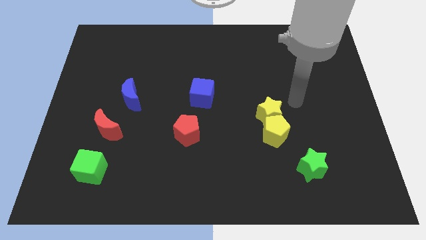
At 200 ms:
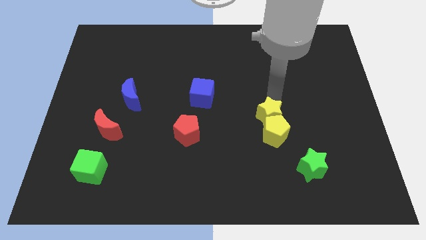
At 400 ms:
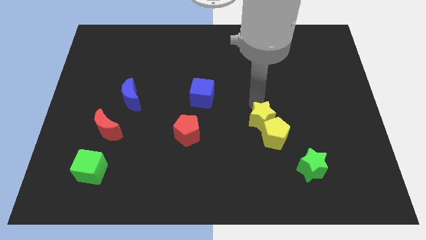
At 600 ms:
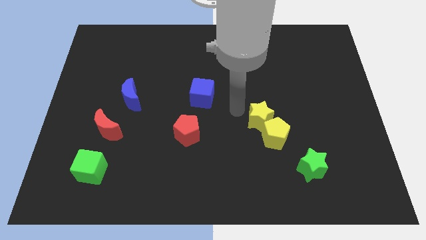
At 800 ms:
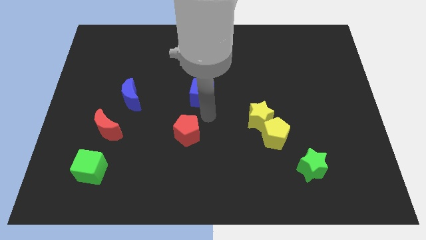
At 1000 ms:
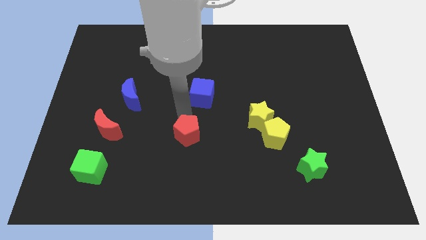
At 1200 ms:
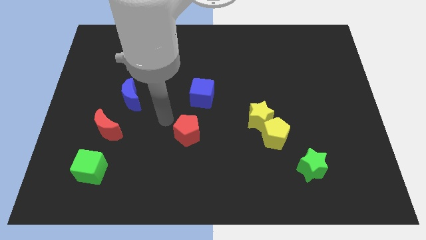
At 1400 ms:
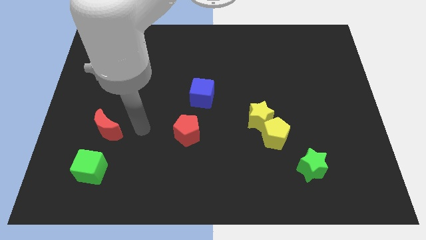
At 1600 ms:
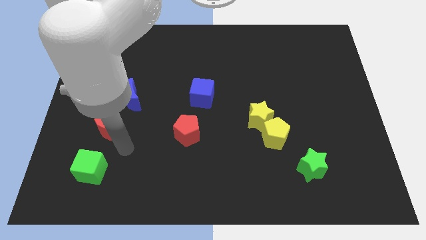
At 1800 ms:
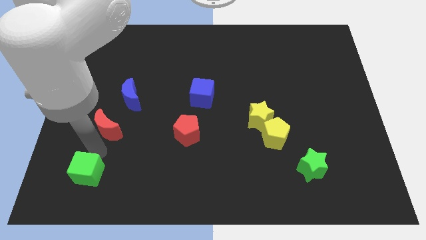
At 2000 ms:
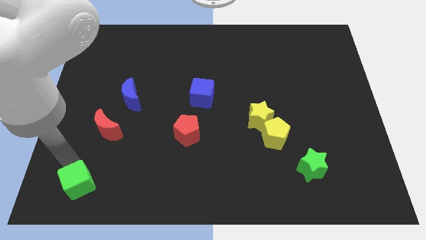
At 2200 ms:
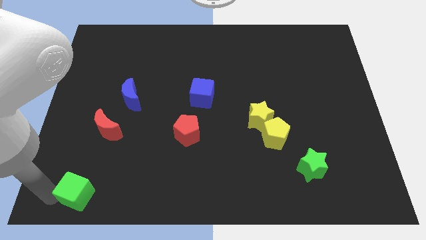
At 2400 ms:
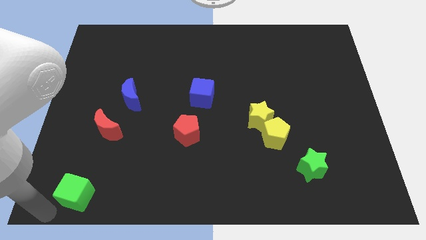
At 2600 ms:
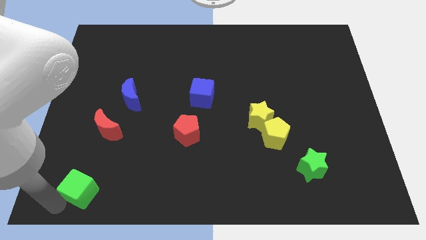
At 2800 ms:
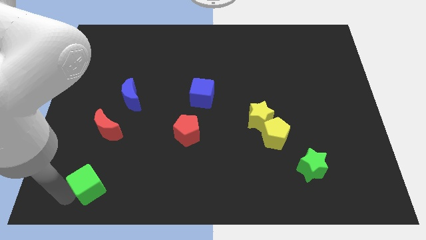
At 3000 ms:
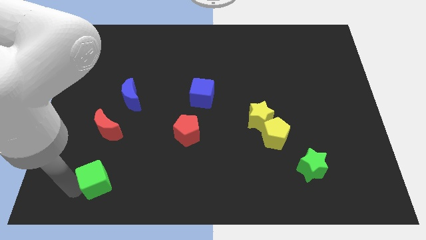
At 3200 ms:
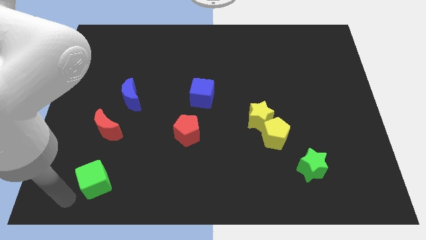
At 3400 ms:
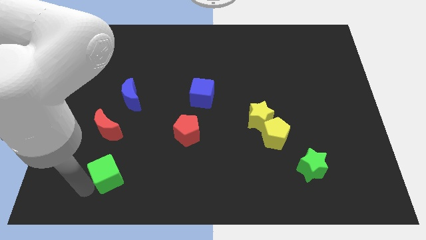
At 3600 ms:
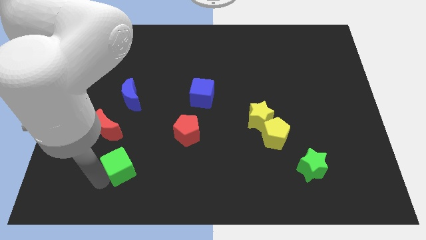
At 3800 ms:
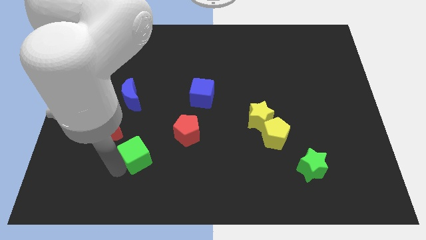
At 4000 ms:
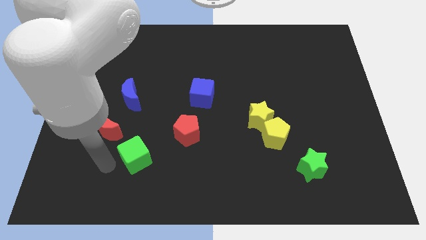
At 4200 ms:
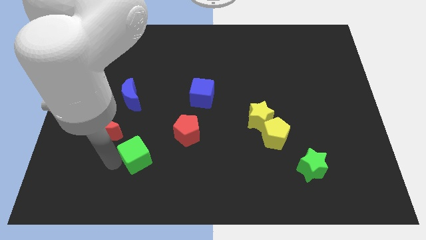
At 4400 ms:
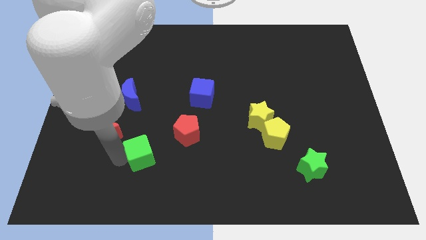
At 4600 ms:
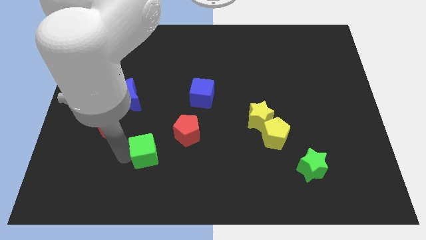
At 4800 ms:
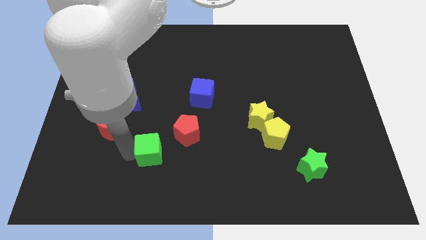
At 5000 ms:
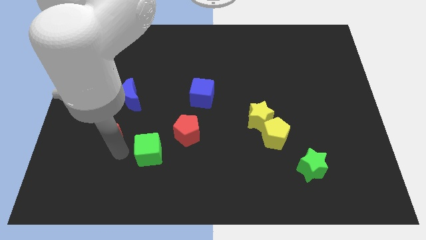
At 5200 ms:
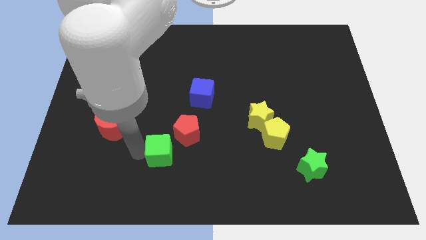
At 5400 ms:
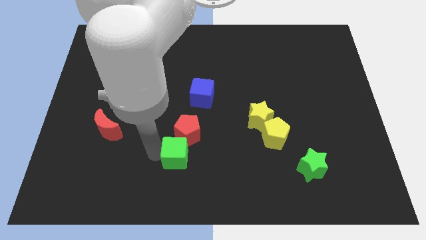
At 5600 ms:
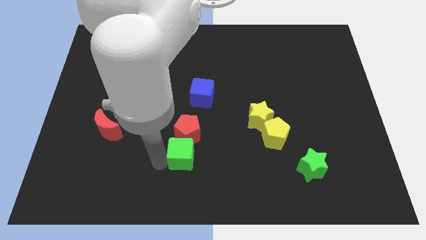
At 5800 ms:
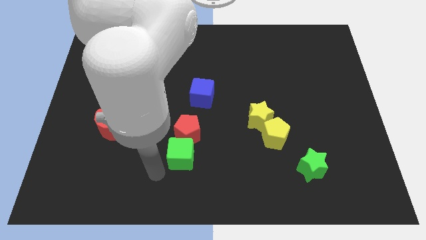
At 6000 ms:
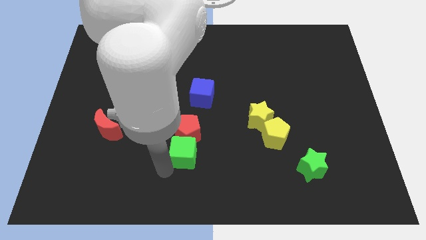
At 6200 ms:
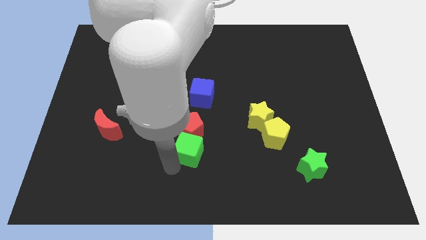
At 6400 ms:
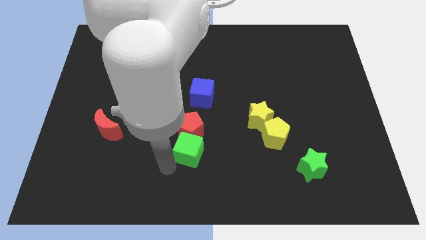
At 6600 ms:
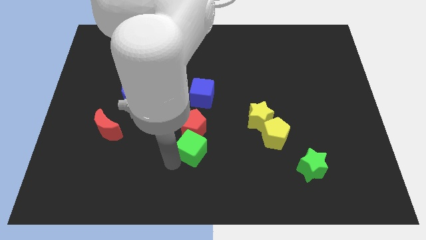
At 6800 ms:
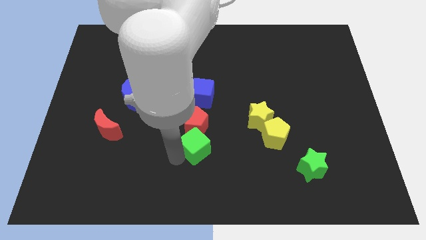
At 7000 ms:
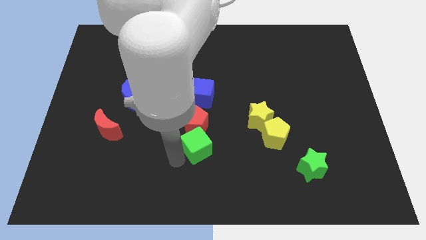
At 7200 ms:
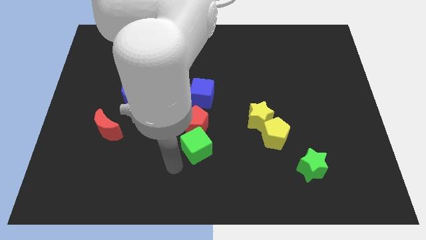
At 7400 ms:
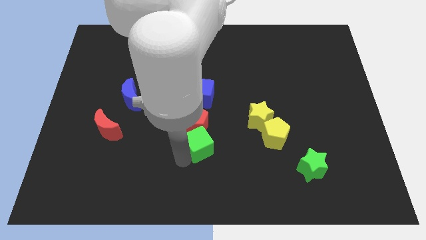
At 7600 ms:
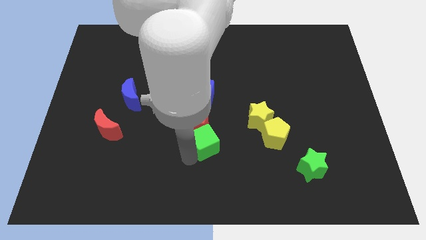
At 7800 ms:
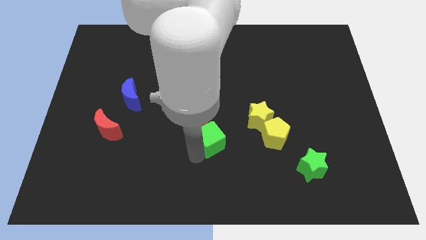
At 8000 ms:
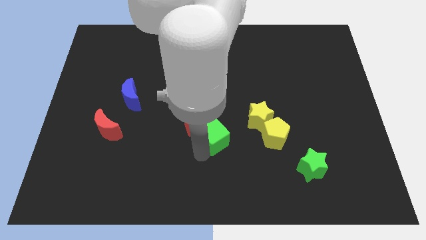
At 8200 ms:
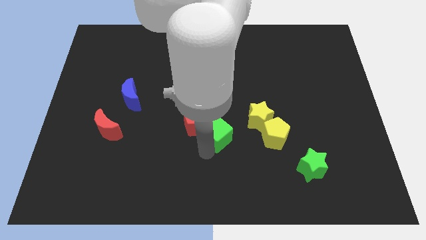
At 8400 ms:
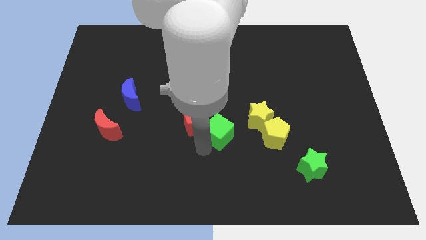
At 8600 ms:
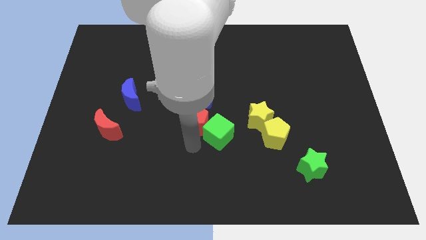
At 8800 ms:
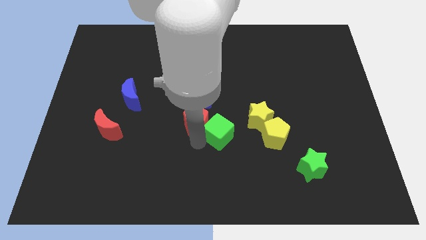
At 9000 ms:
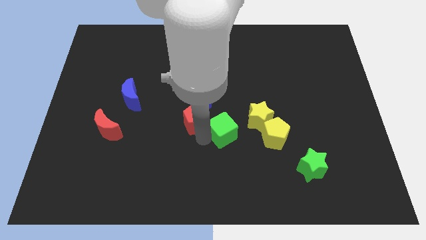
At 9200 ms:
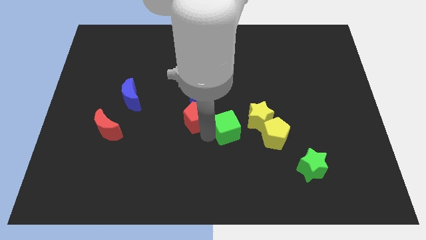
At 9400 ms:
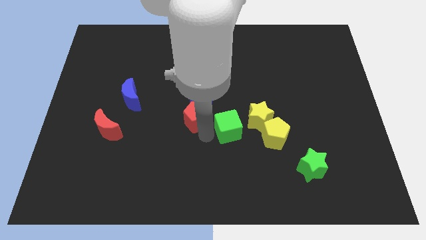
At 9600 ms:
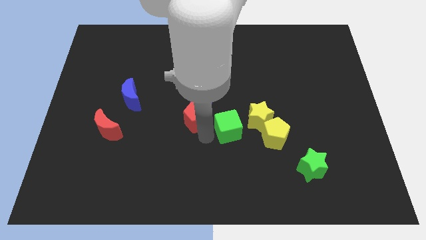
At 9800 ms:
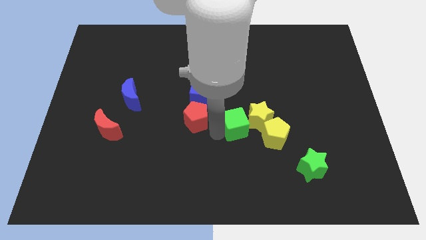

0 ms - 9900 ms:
move the green cube to the yellow star
